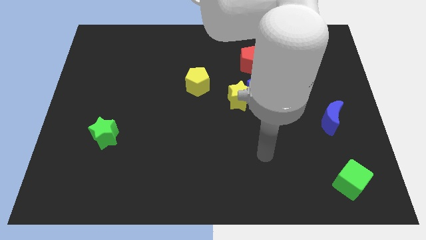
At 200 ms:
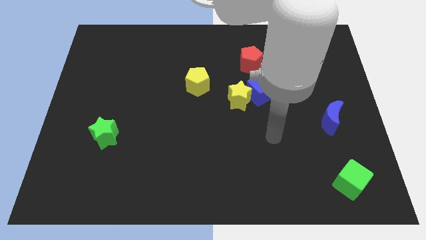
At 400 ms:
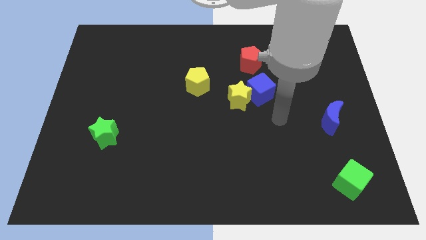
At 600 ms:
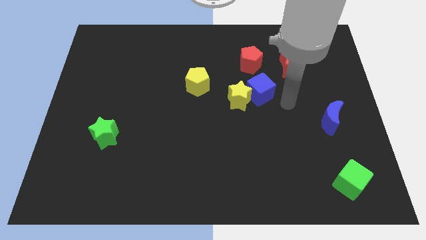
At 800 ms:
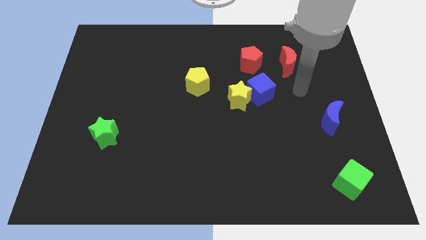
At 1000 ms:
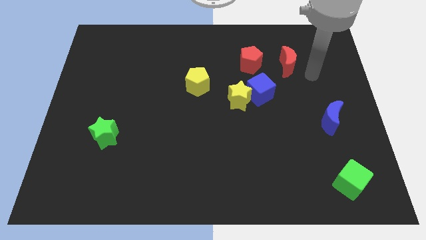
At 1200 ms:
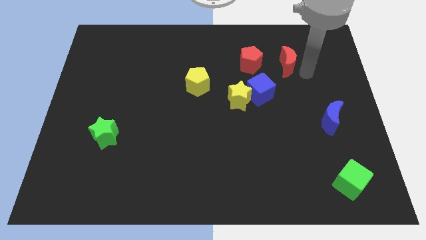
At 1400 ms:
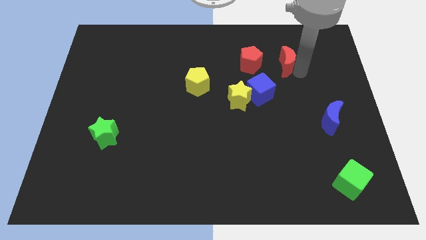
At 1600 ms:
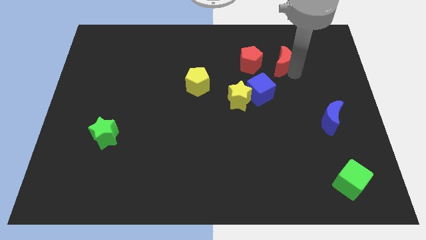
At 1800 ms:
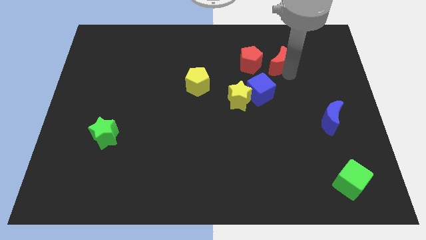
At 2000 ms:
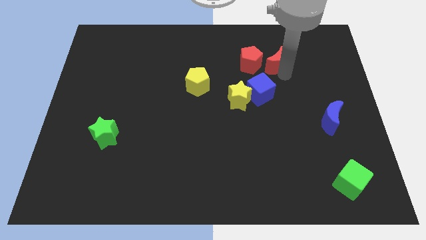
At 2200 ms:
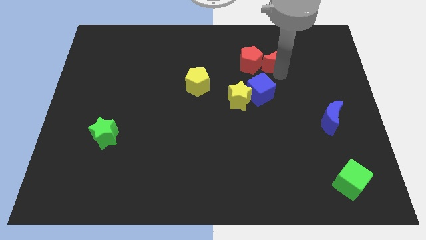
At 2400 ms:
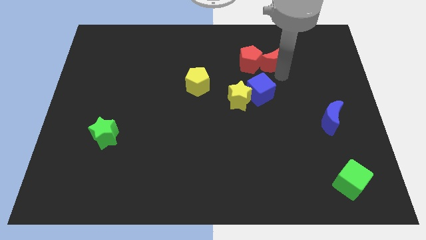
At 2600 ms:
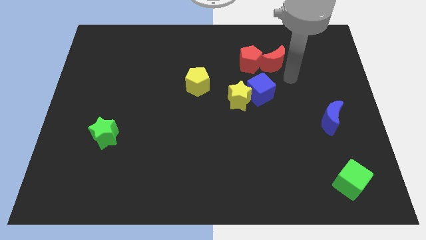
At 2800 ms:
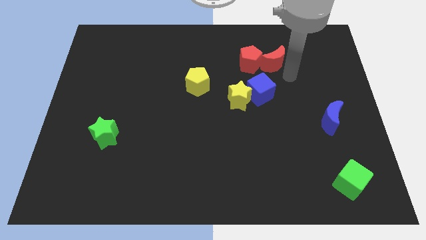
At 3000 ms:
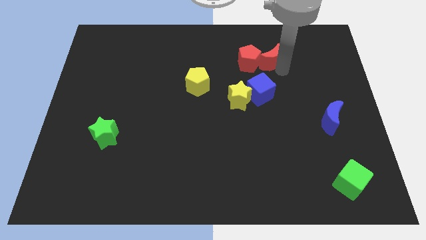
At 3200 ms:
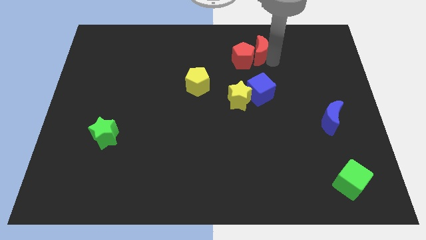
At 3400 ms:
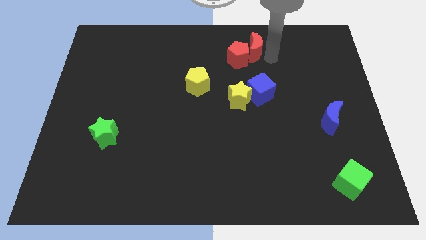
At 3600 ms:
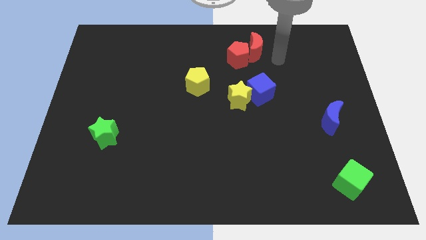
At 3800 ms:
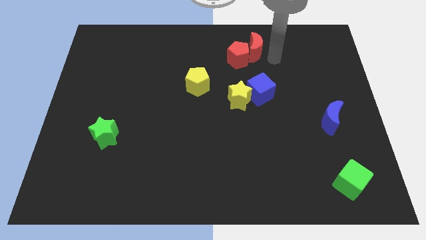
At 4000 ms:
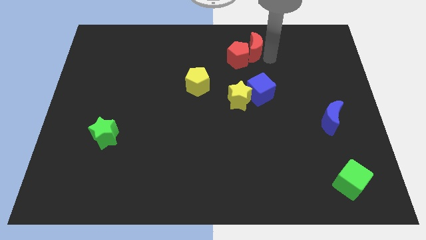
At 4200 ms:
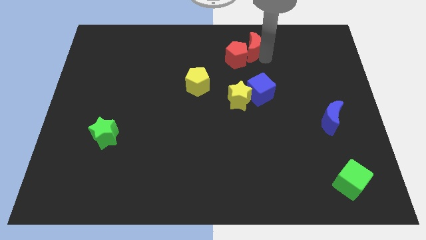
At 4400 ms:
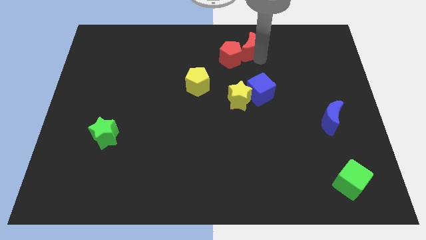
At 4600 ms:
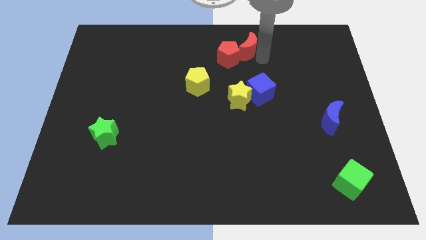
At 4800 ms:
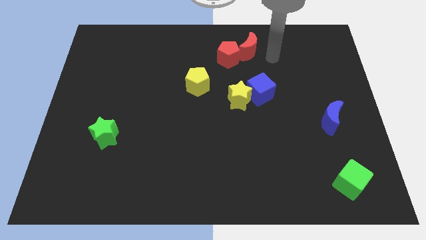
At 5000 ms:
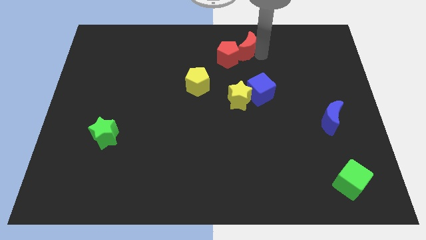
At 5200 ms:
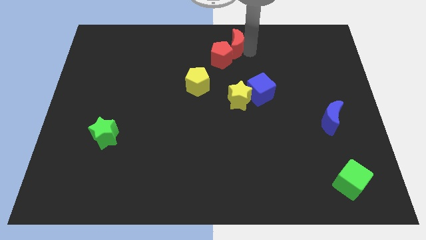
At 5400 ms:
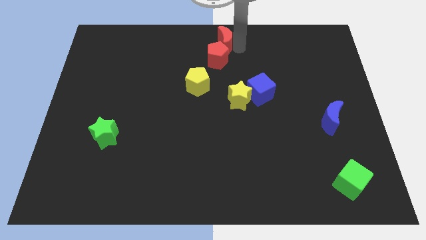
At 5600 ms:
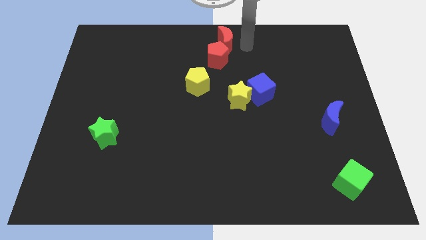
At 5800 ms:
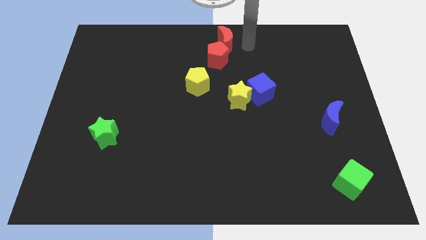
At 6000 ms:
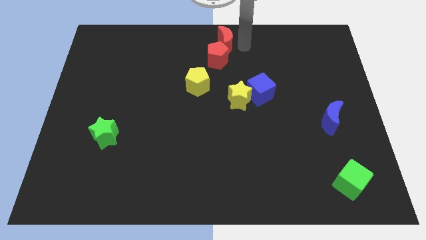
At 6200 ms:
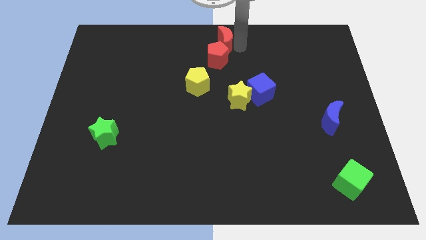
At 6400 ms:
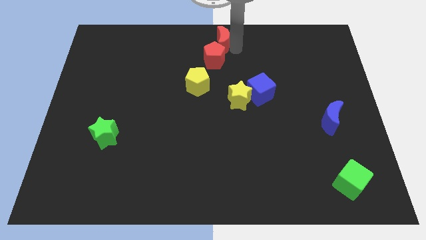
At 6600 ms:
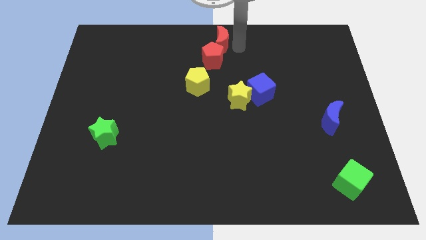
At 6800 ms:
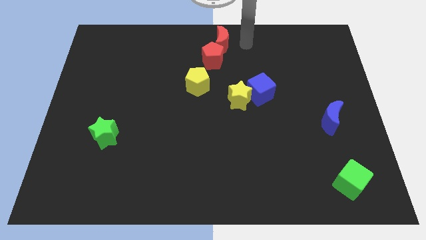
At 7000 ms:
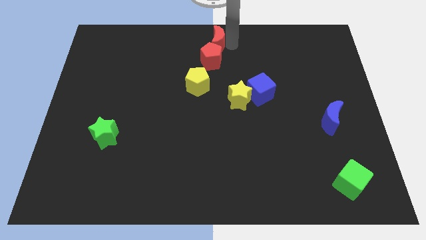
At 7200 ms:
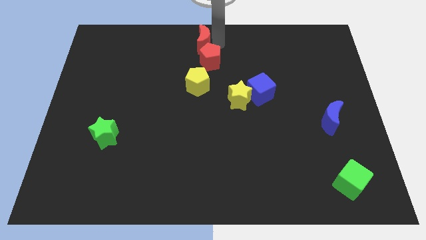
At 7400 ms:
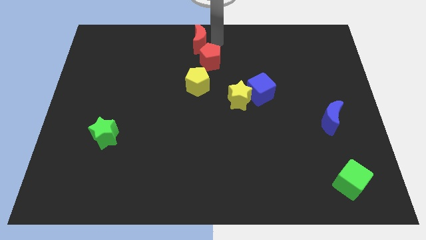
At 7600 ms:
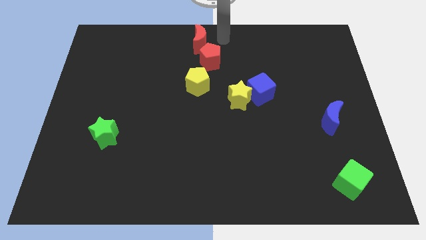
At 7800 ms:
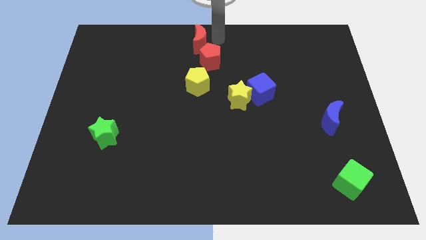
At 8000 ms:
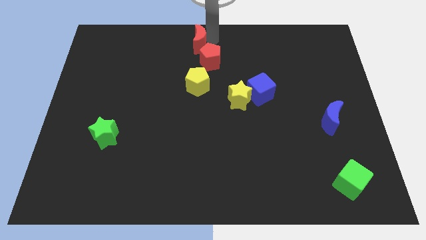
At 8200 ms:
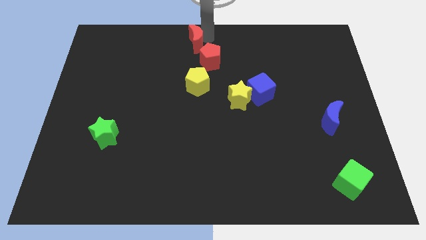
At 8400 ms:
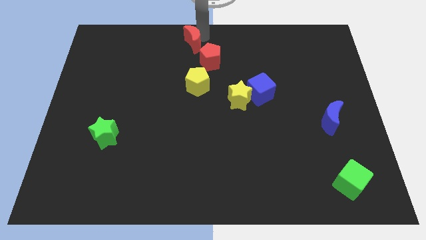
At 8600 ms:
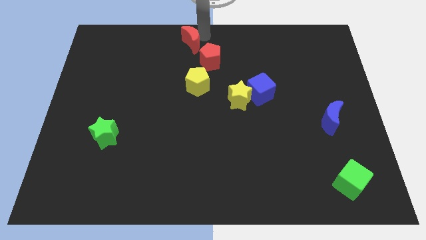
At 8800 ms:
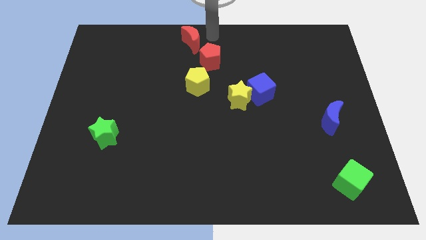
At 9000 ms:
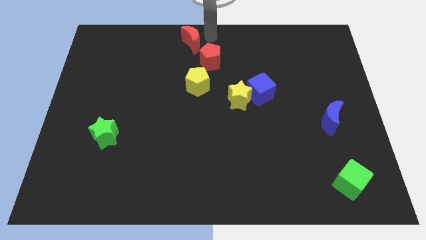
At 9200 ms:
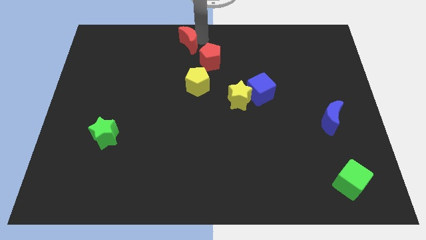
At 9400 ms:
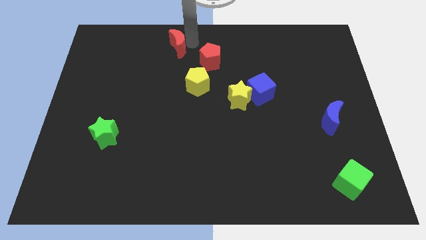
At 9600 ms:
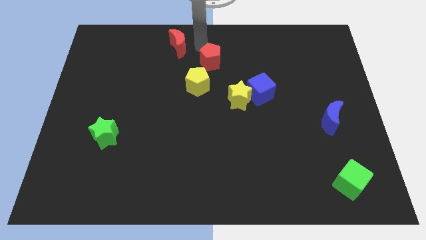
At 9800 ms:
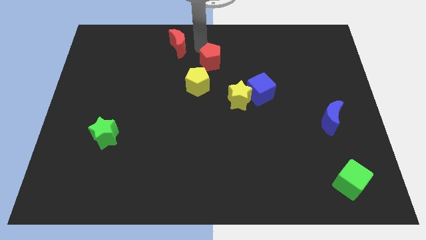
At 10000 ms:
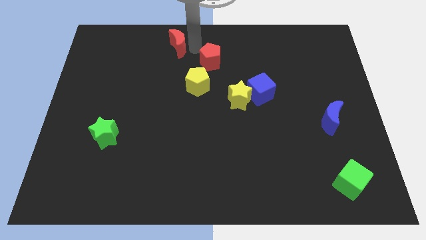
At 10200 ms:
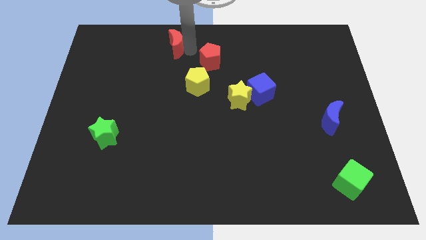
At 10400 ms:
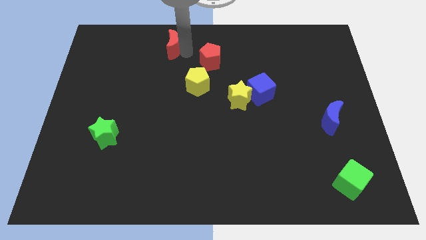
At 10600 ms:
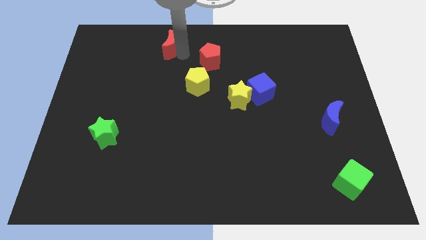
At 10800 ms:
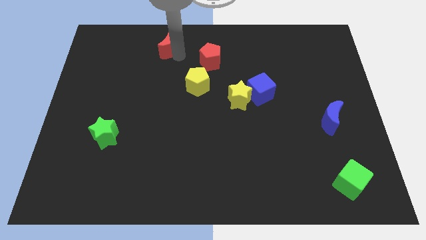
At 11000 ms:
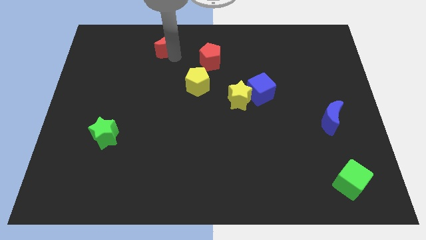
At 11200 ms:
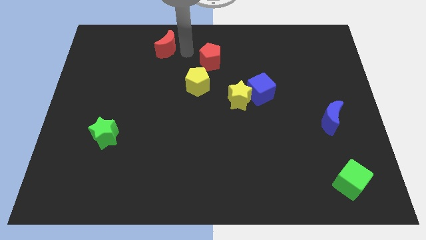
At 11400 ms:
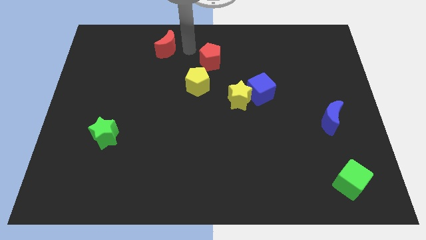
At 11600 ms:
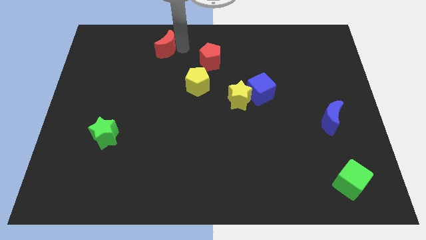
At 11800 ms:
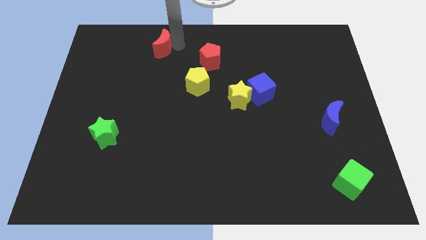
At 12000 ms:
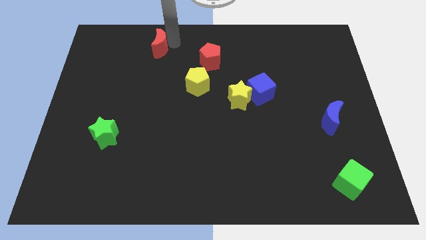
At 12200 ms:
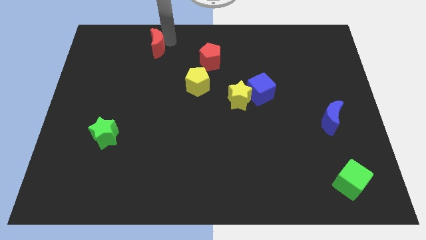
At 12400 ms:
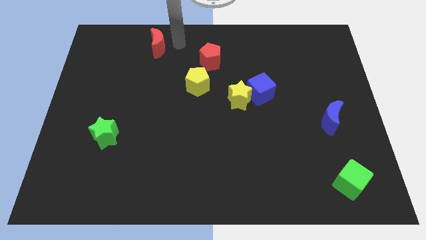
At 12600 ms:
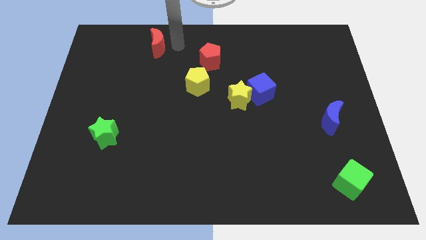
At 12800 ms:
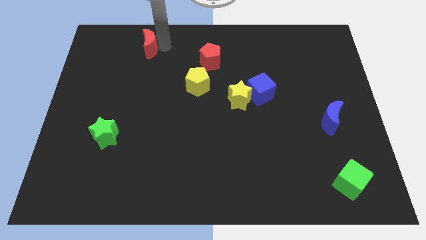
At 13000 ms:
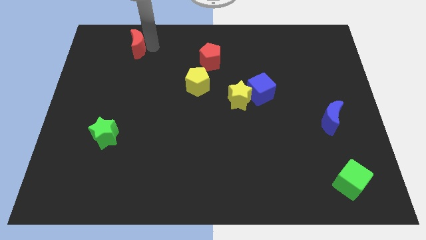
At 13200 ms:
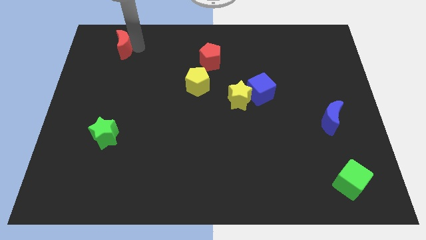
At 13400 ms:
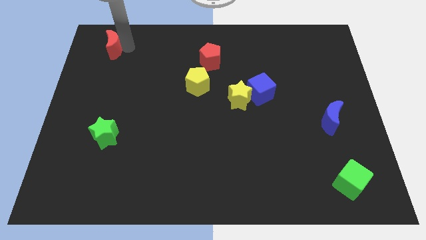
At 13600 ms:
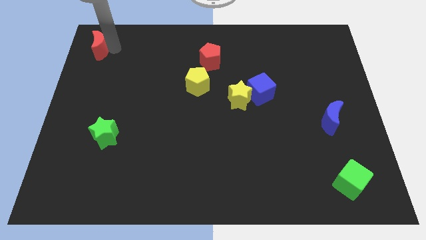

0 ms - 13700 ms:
put the red moon to the top left of the board
